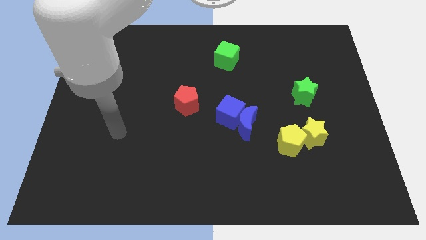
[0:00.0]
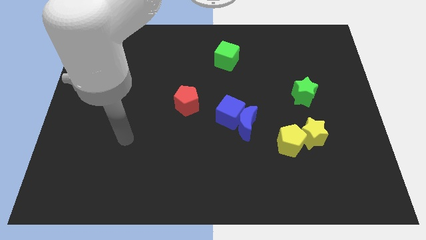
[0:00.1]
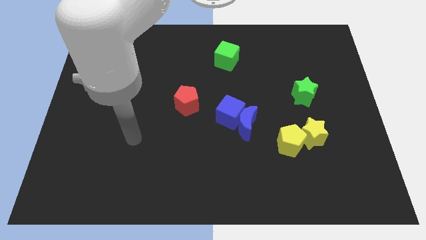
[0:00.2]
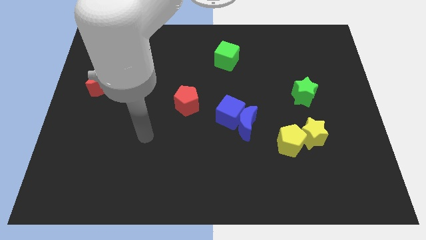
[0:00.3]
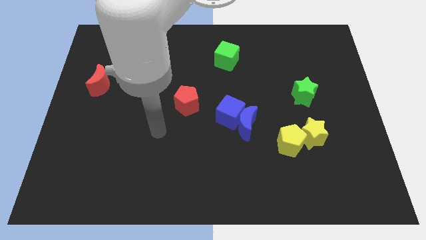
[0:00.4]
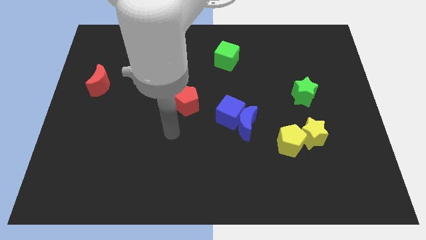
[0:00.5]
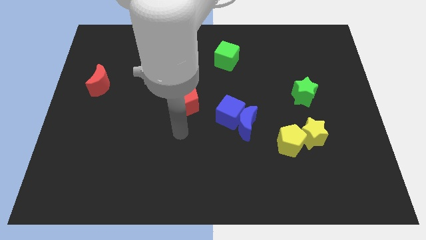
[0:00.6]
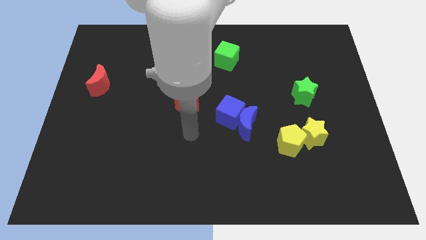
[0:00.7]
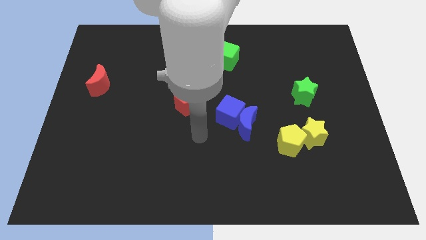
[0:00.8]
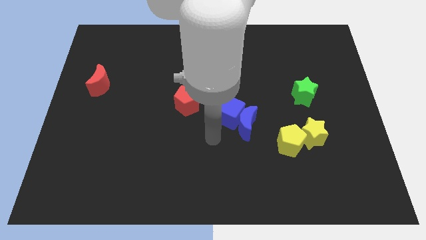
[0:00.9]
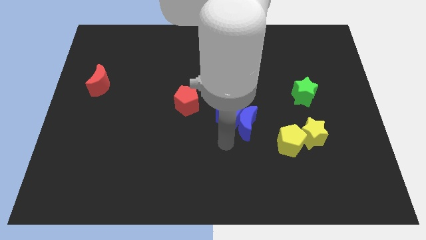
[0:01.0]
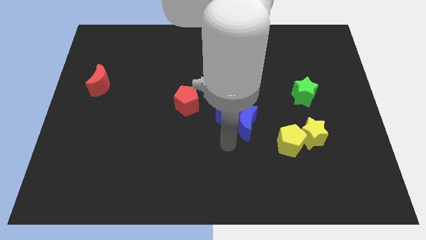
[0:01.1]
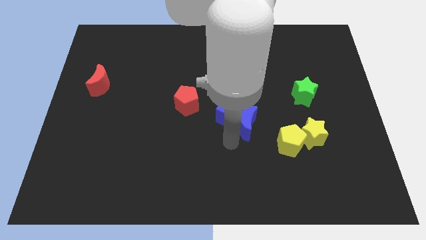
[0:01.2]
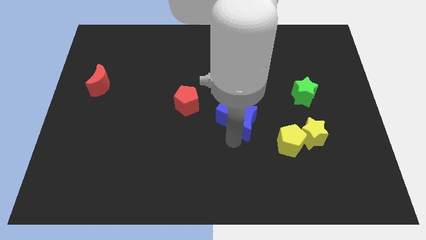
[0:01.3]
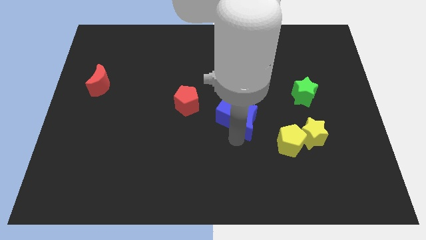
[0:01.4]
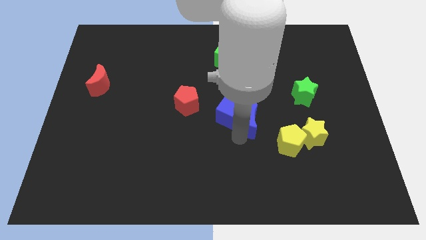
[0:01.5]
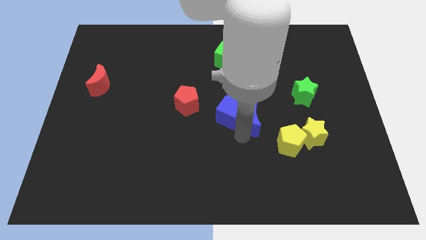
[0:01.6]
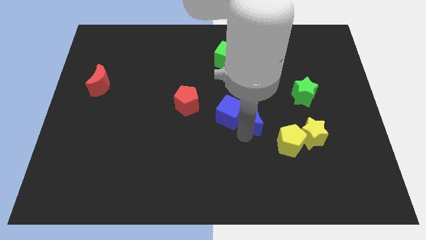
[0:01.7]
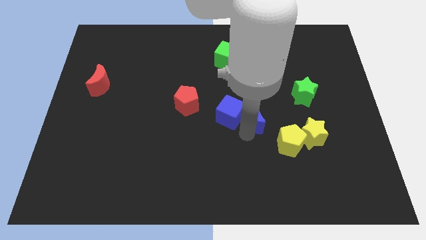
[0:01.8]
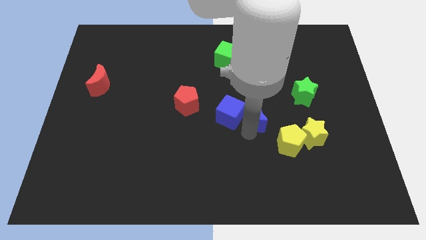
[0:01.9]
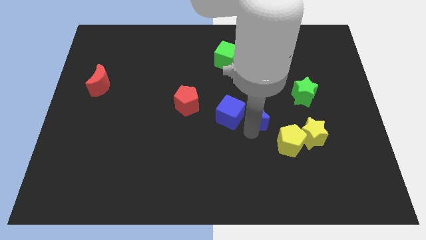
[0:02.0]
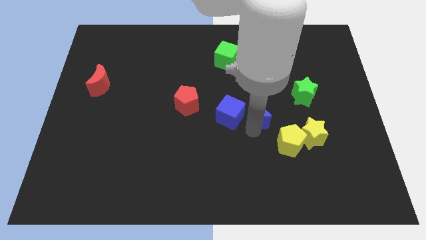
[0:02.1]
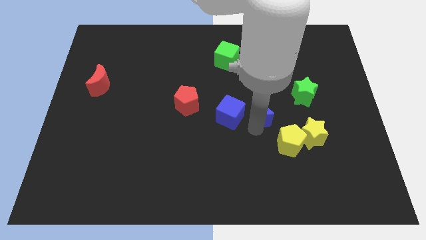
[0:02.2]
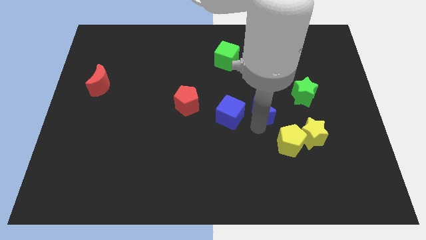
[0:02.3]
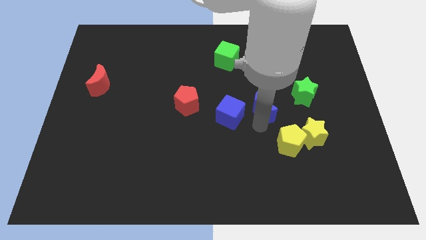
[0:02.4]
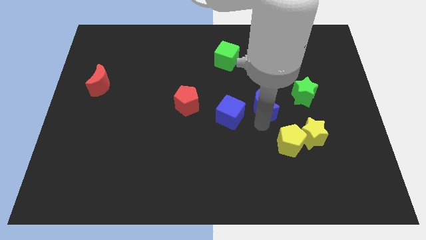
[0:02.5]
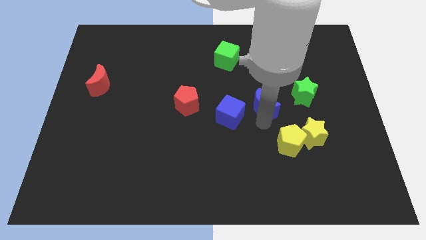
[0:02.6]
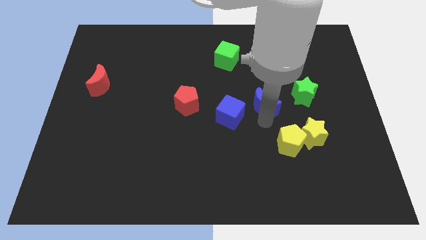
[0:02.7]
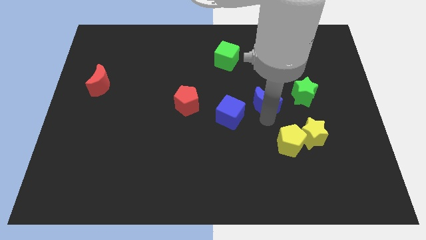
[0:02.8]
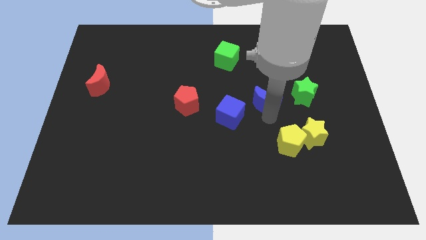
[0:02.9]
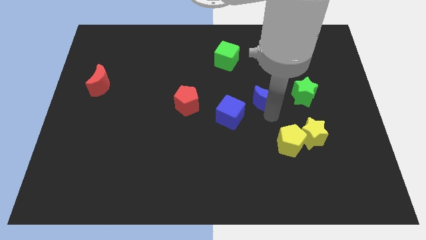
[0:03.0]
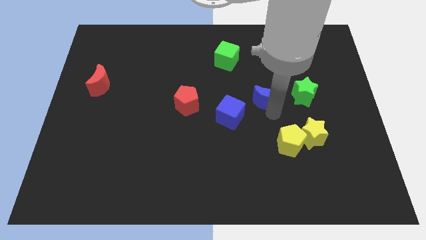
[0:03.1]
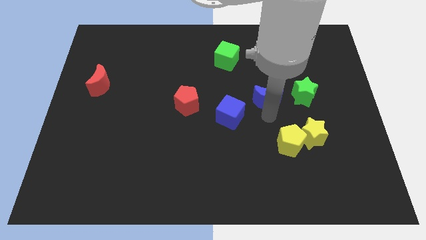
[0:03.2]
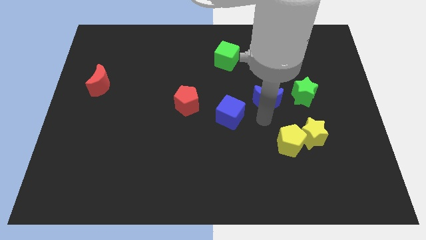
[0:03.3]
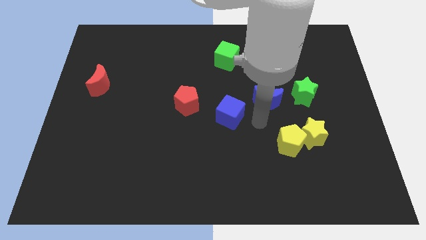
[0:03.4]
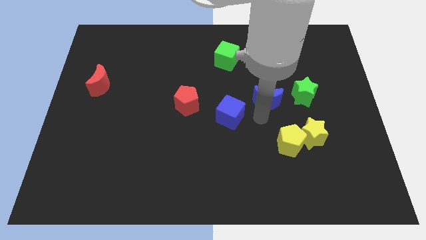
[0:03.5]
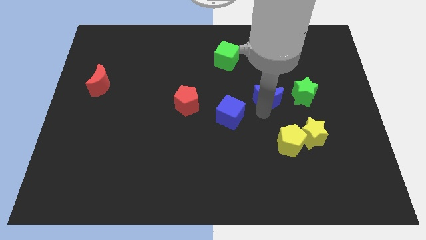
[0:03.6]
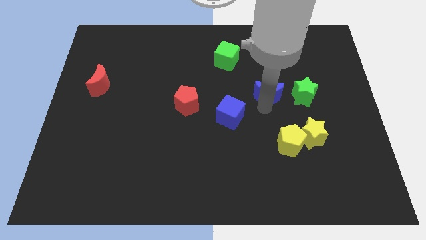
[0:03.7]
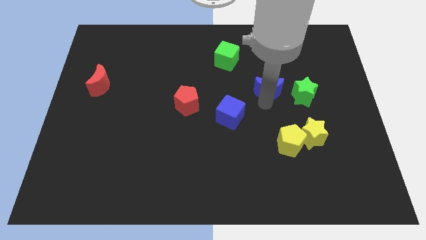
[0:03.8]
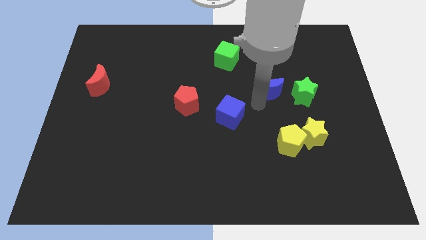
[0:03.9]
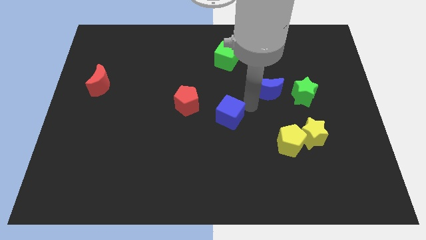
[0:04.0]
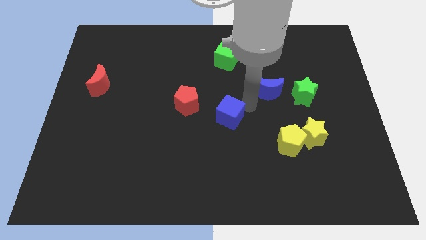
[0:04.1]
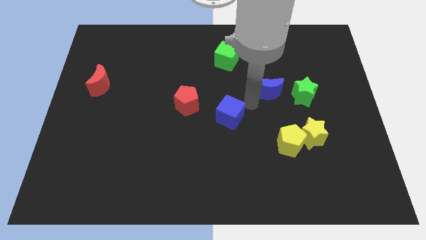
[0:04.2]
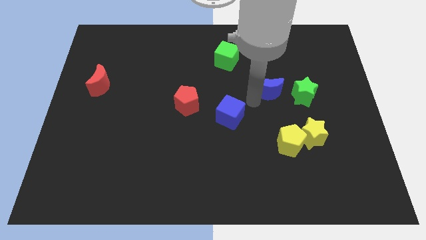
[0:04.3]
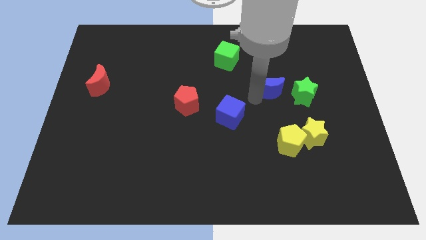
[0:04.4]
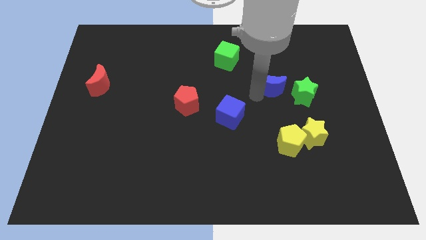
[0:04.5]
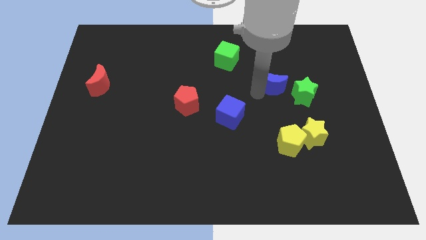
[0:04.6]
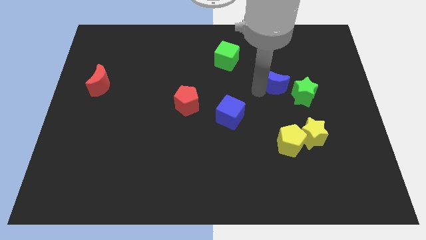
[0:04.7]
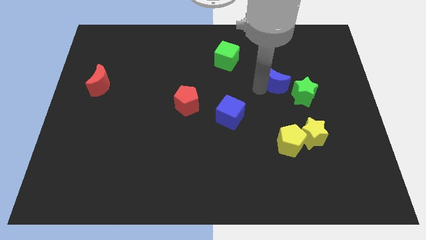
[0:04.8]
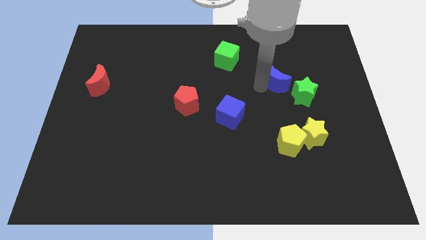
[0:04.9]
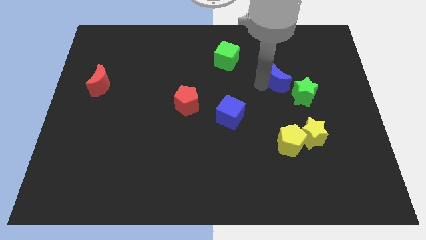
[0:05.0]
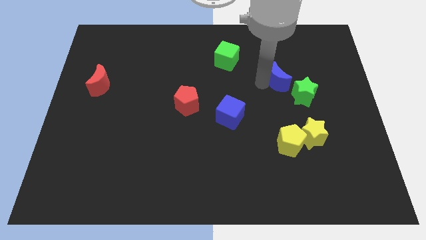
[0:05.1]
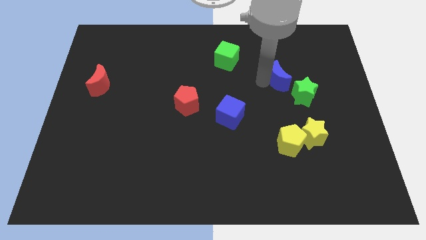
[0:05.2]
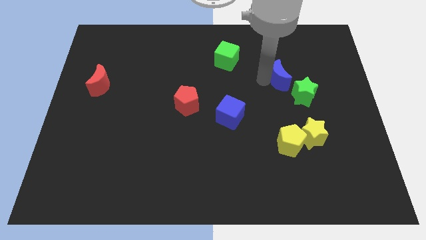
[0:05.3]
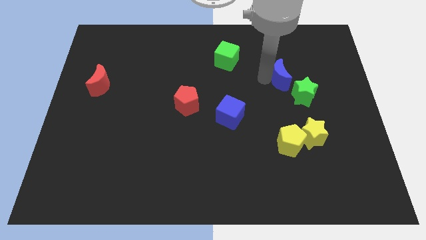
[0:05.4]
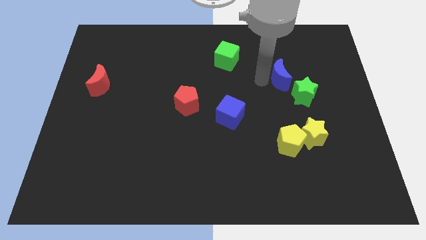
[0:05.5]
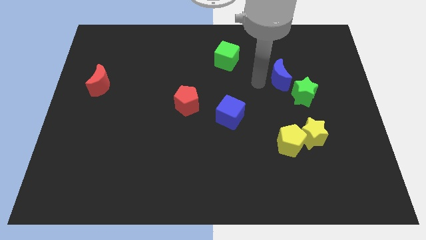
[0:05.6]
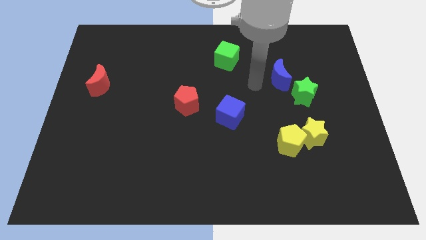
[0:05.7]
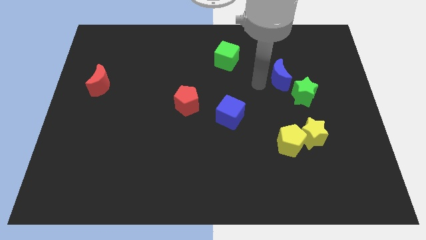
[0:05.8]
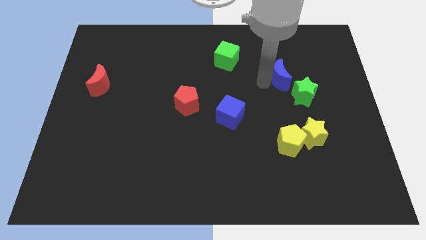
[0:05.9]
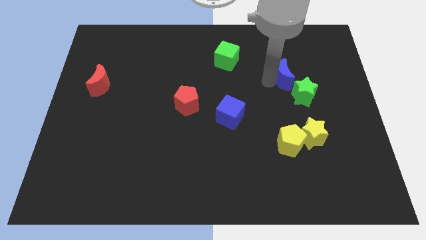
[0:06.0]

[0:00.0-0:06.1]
slide the blue moon to the top side of the green star

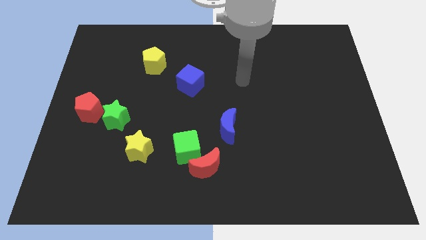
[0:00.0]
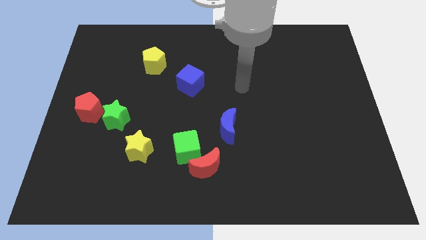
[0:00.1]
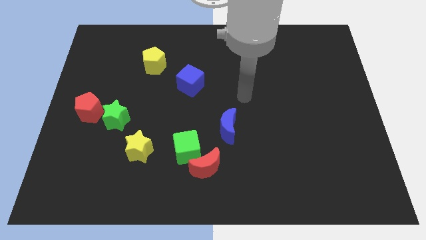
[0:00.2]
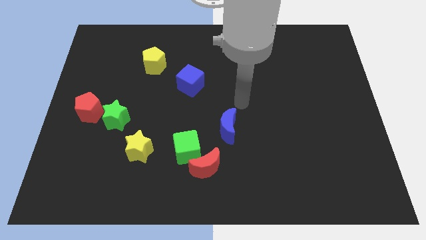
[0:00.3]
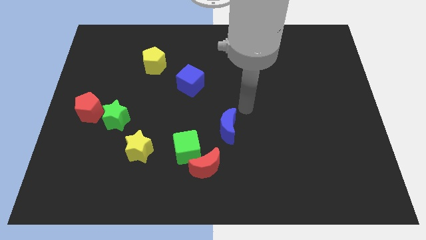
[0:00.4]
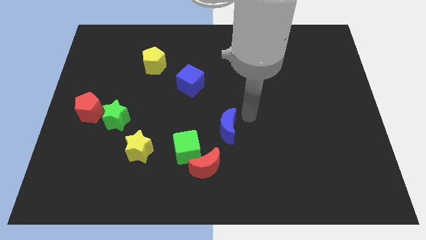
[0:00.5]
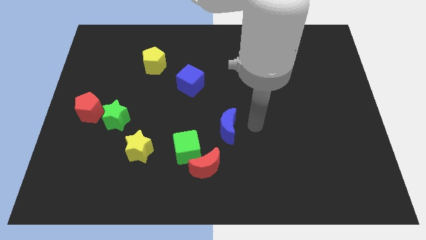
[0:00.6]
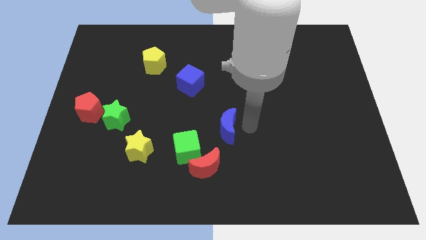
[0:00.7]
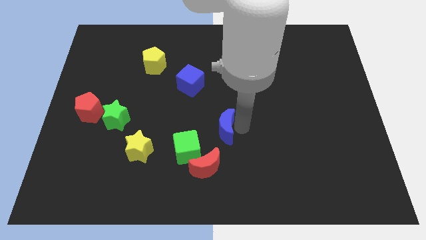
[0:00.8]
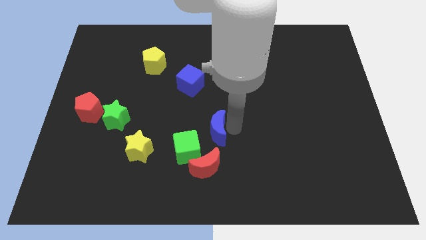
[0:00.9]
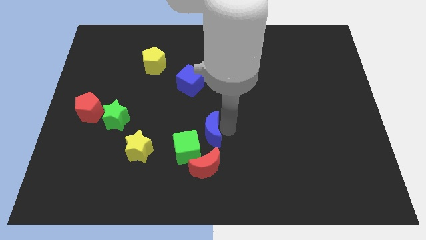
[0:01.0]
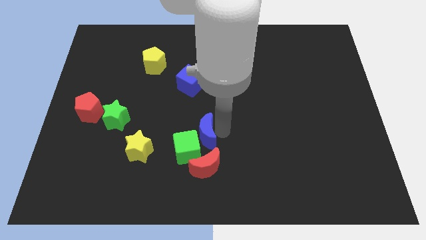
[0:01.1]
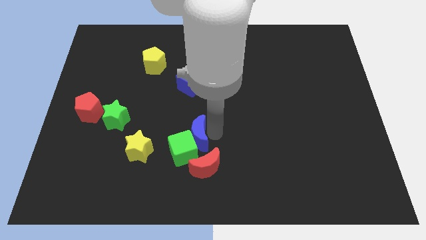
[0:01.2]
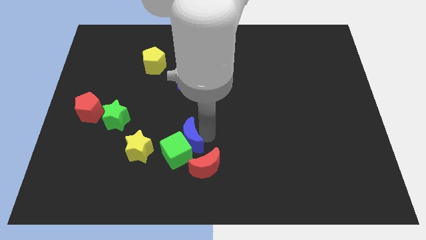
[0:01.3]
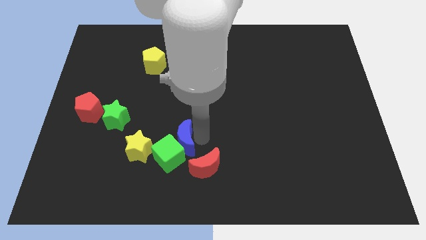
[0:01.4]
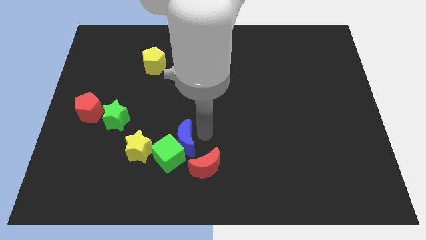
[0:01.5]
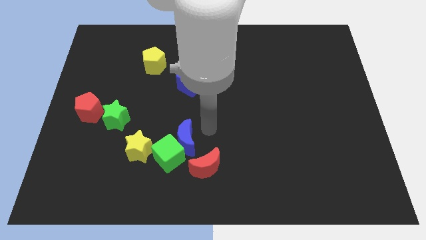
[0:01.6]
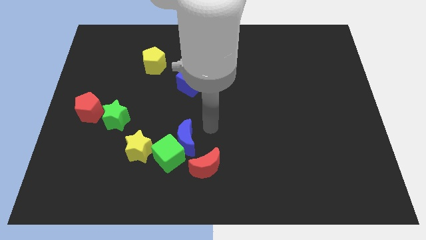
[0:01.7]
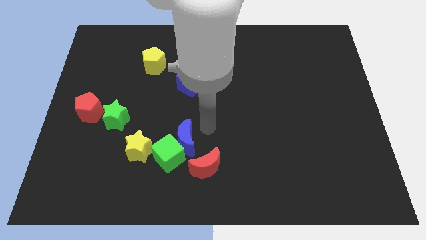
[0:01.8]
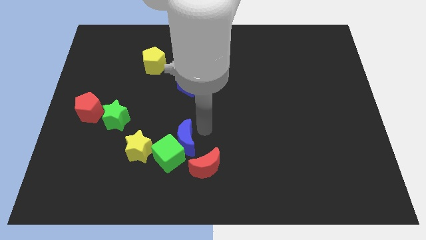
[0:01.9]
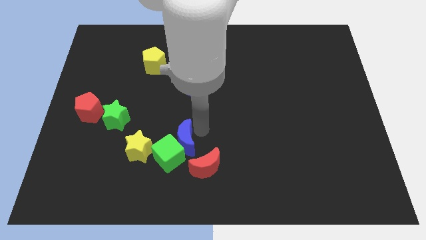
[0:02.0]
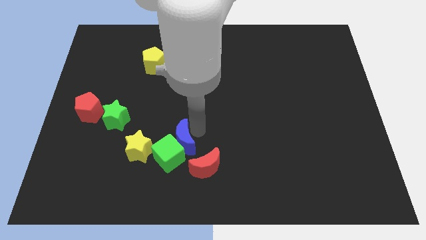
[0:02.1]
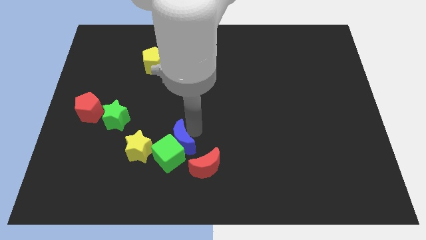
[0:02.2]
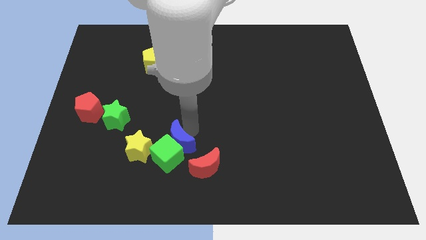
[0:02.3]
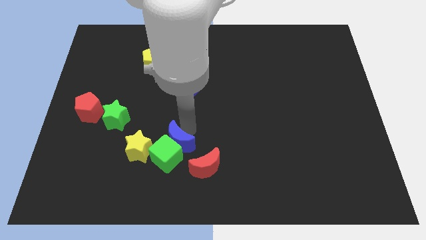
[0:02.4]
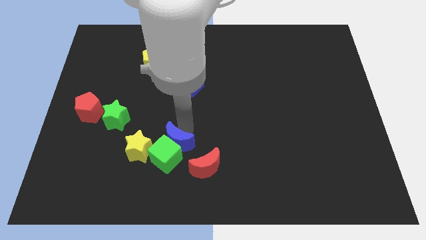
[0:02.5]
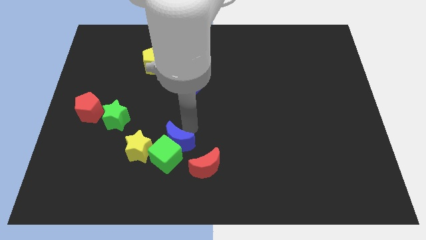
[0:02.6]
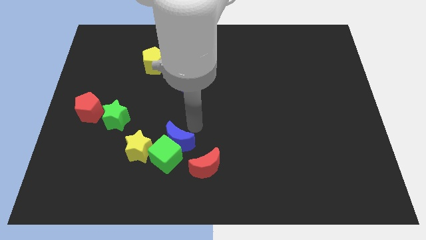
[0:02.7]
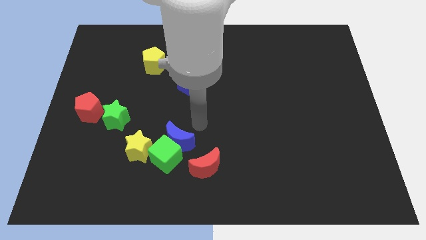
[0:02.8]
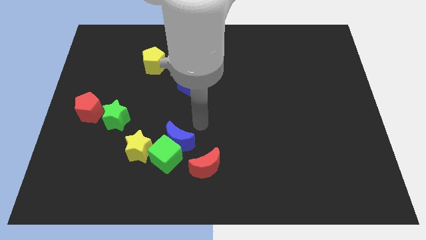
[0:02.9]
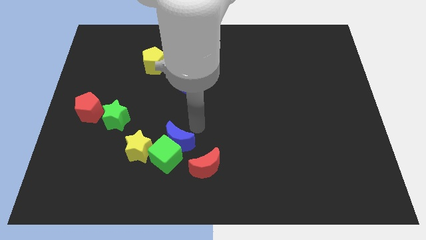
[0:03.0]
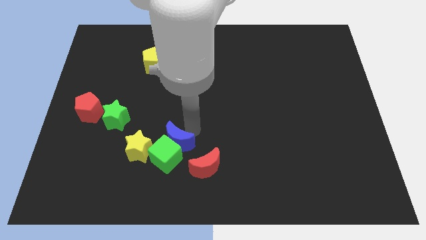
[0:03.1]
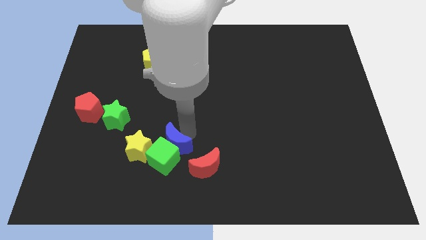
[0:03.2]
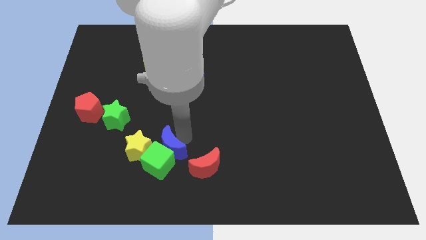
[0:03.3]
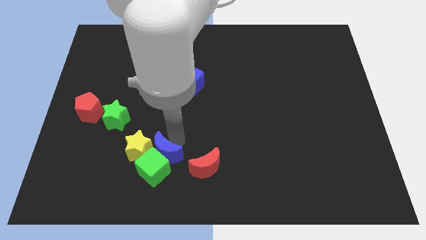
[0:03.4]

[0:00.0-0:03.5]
slide the blue moon diagonally down and to the right of the yellow star
